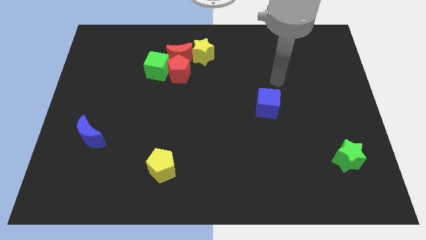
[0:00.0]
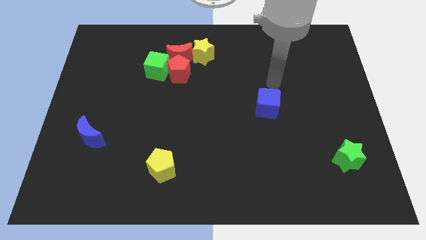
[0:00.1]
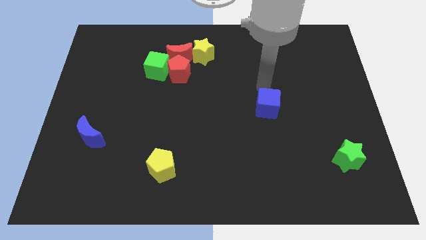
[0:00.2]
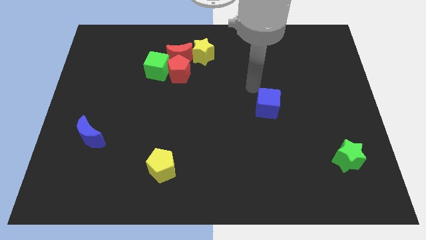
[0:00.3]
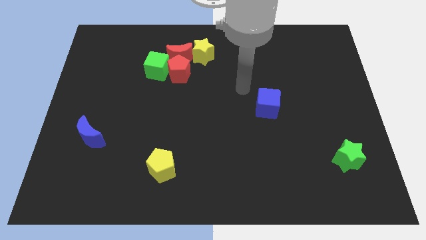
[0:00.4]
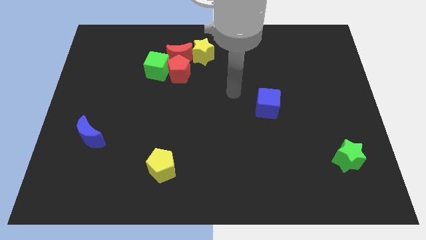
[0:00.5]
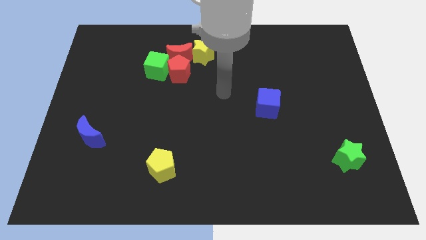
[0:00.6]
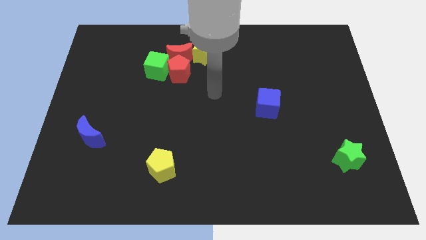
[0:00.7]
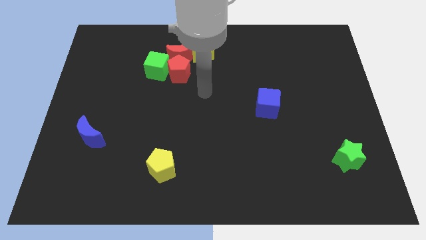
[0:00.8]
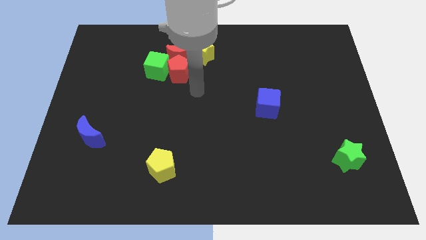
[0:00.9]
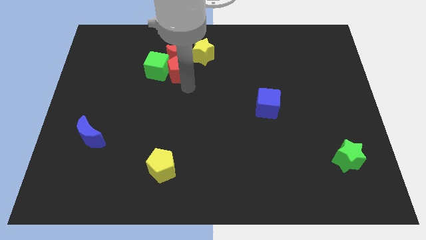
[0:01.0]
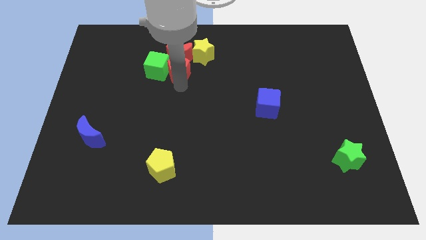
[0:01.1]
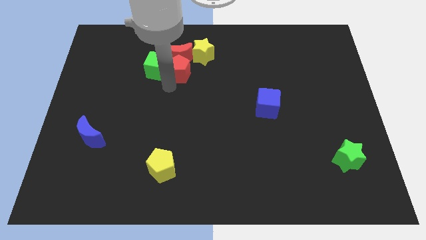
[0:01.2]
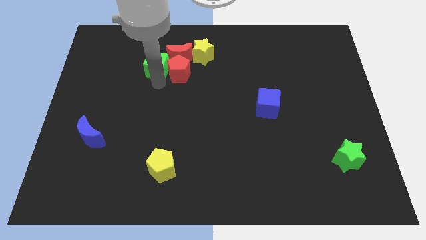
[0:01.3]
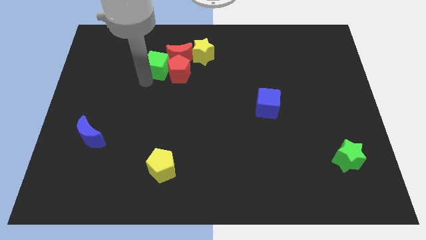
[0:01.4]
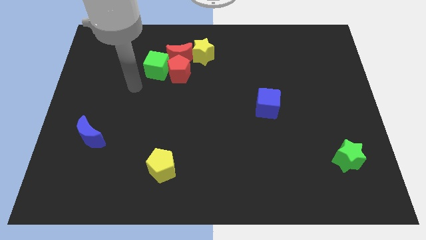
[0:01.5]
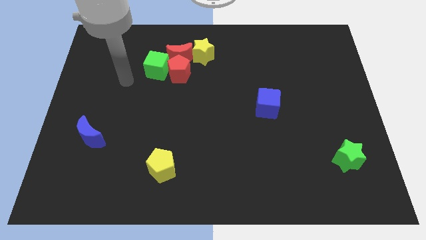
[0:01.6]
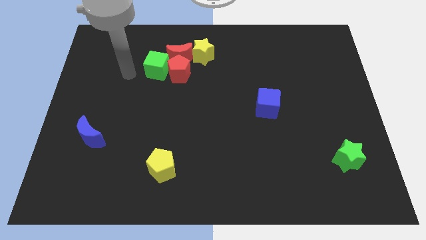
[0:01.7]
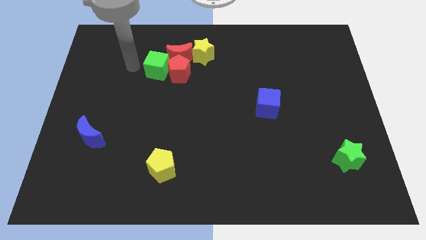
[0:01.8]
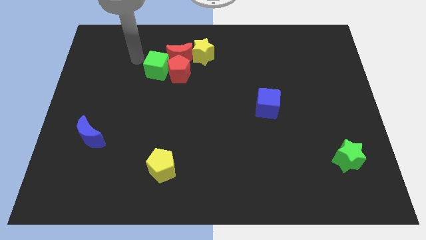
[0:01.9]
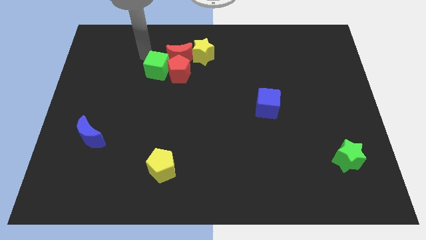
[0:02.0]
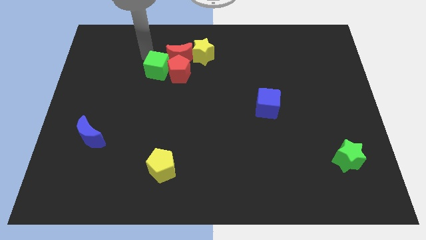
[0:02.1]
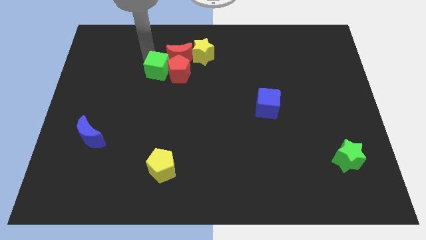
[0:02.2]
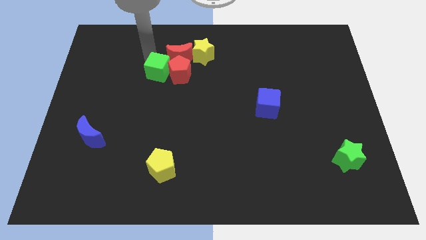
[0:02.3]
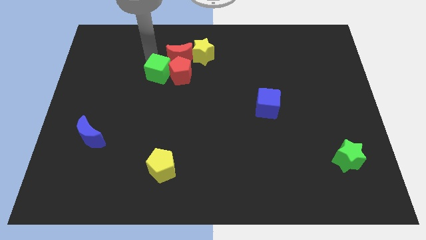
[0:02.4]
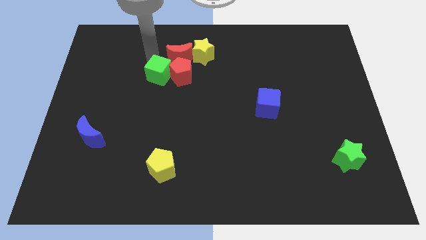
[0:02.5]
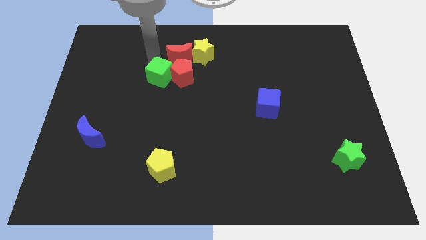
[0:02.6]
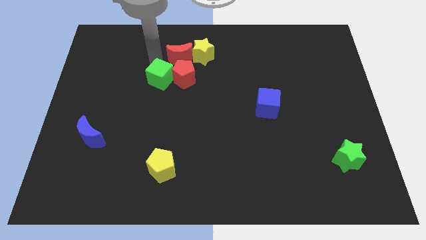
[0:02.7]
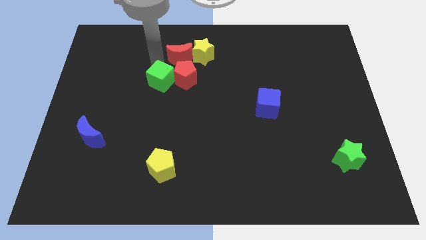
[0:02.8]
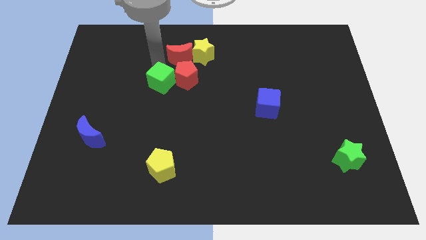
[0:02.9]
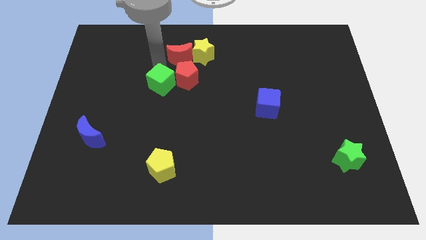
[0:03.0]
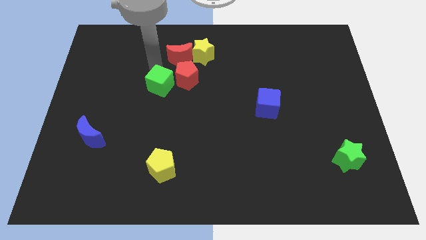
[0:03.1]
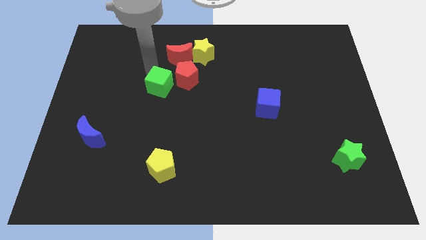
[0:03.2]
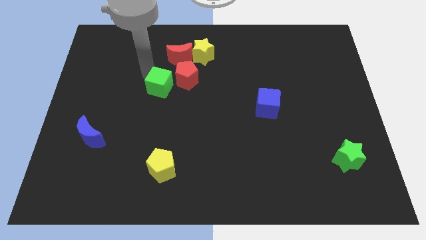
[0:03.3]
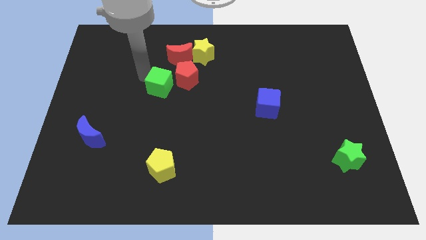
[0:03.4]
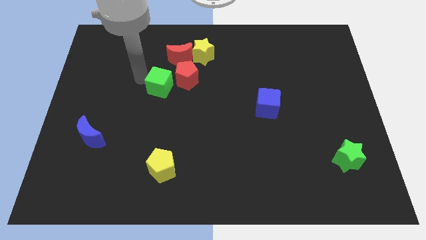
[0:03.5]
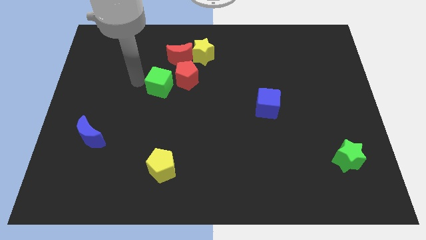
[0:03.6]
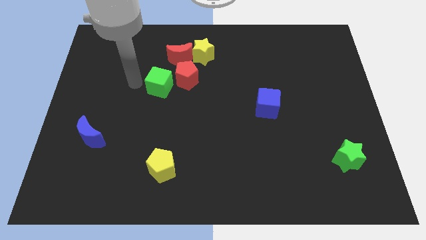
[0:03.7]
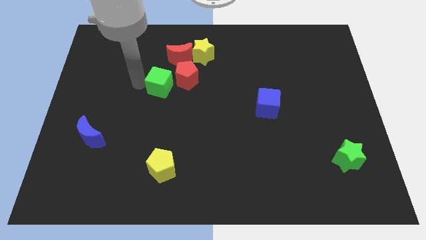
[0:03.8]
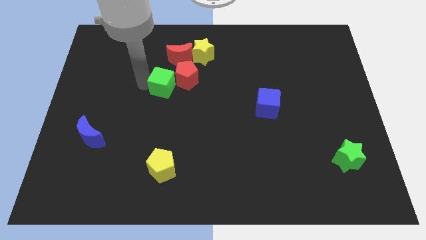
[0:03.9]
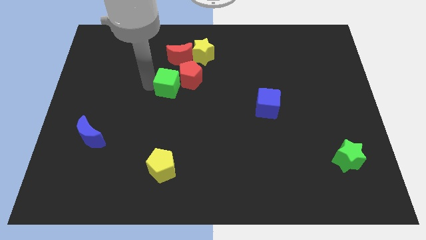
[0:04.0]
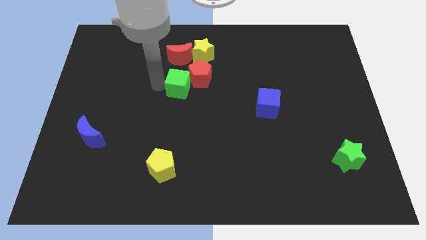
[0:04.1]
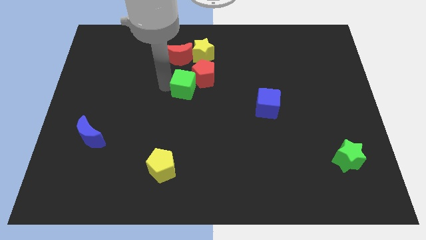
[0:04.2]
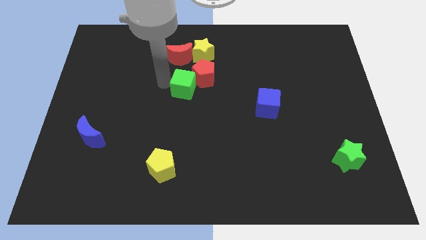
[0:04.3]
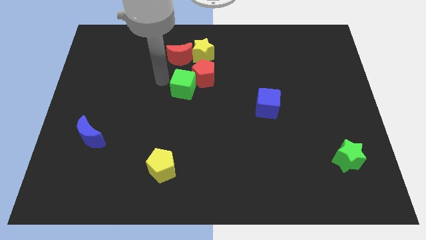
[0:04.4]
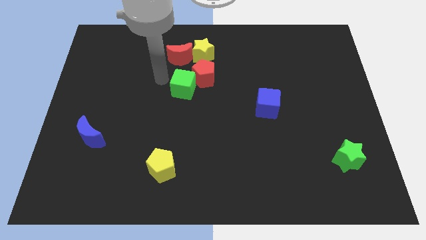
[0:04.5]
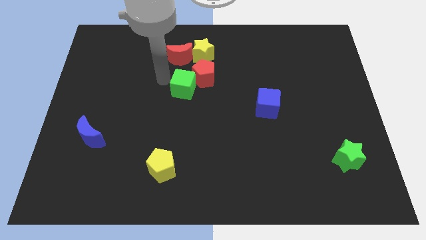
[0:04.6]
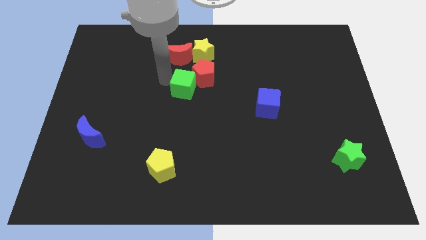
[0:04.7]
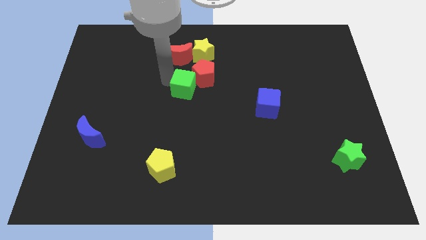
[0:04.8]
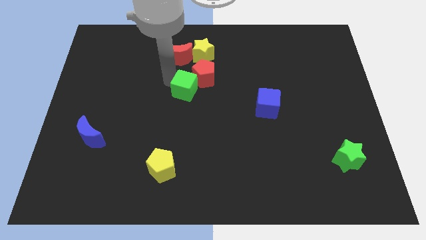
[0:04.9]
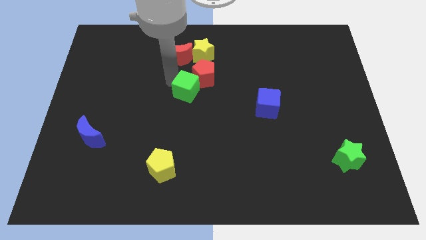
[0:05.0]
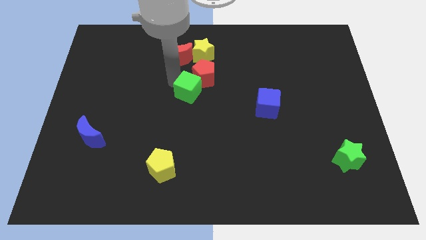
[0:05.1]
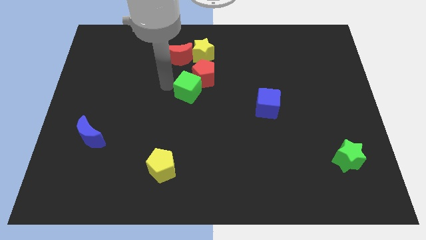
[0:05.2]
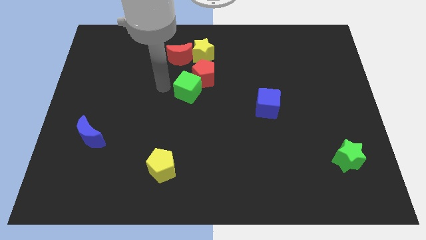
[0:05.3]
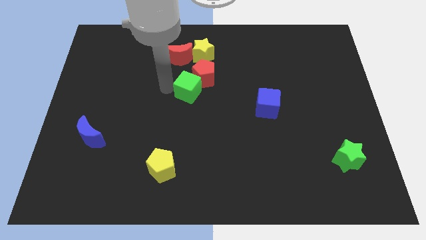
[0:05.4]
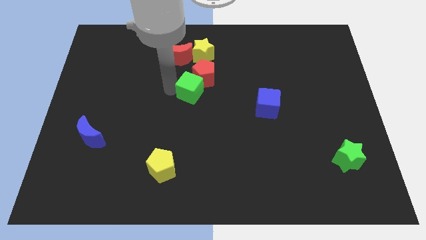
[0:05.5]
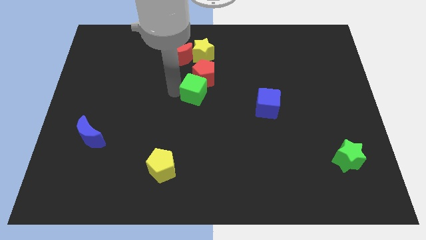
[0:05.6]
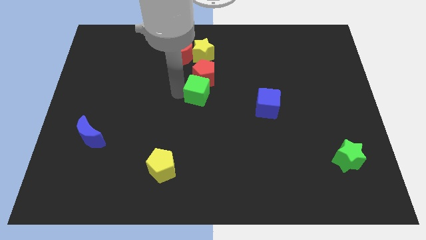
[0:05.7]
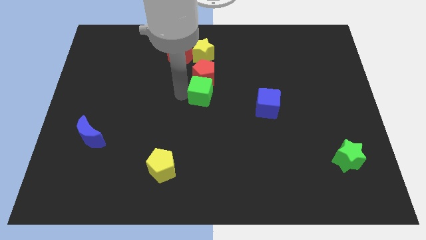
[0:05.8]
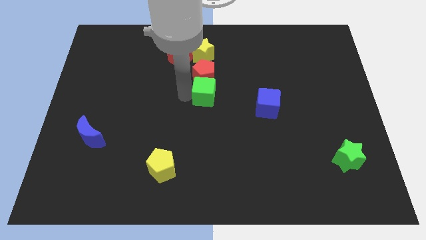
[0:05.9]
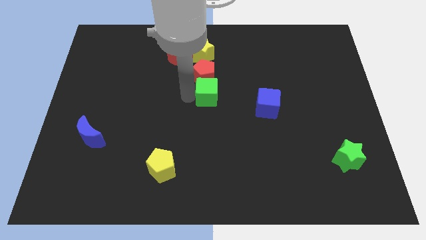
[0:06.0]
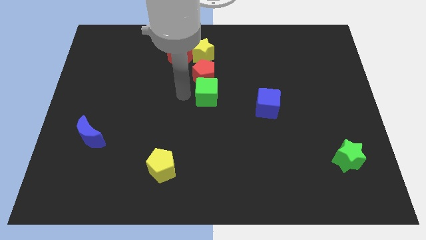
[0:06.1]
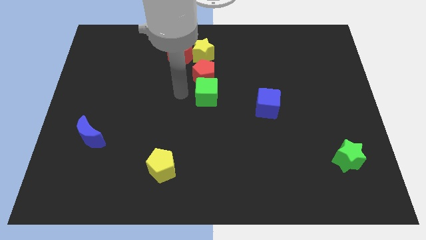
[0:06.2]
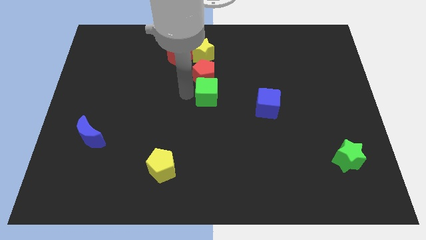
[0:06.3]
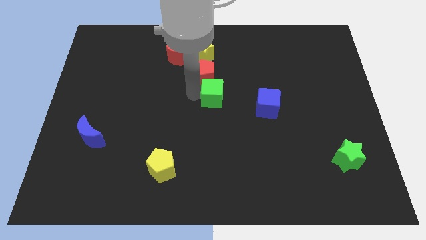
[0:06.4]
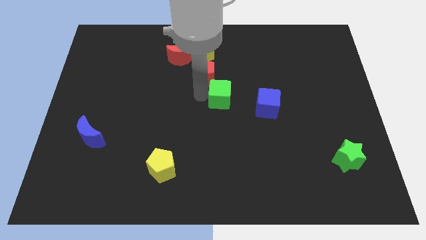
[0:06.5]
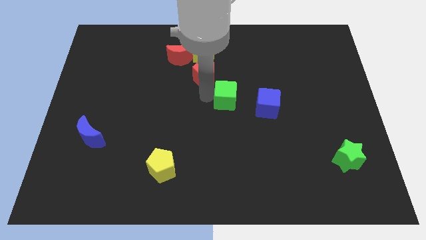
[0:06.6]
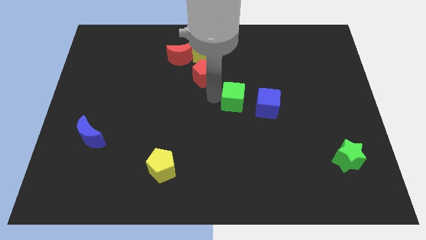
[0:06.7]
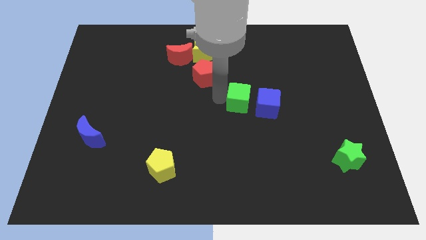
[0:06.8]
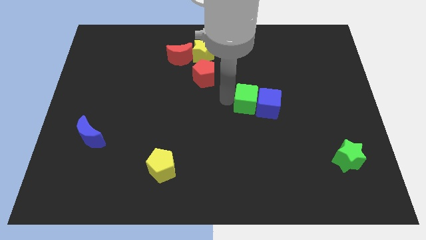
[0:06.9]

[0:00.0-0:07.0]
push the green cube next to the blue cube
